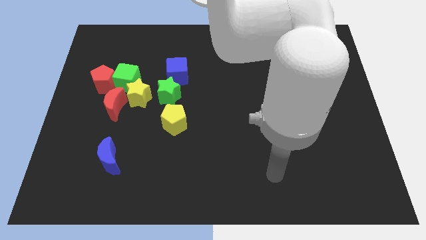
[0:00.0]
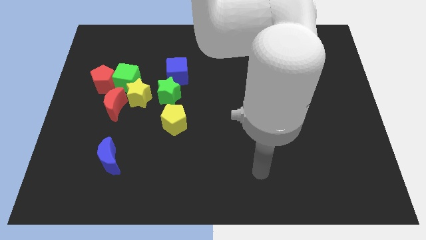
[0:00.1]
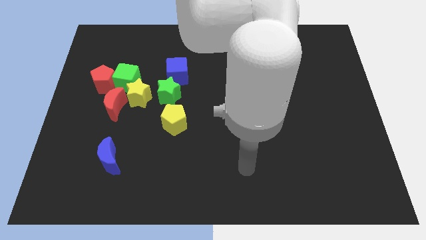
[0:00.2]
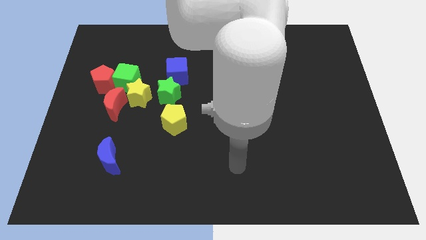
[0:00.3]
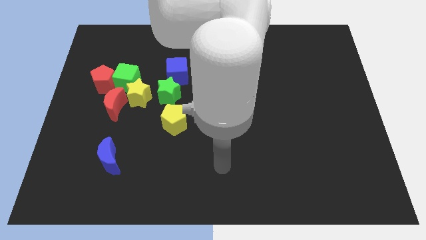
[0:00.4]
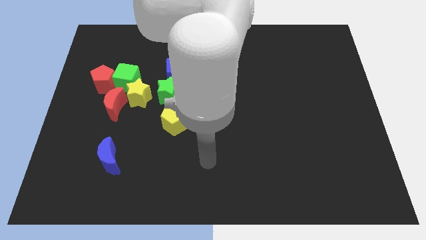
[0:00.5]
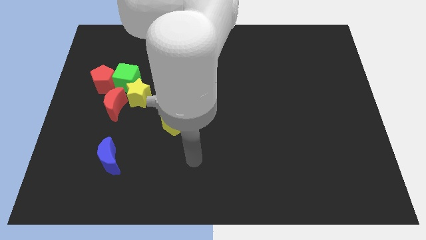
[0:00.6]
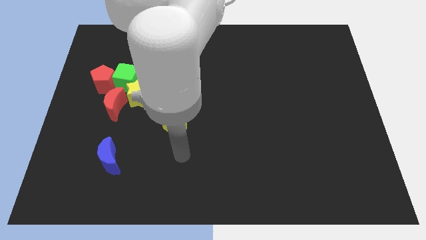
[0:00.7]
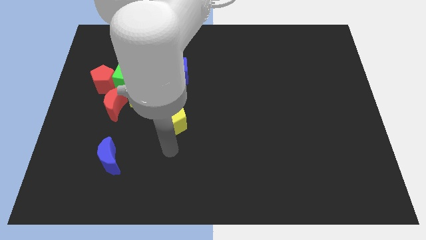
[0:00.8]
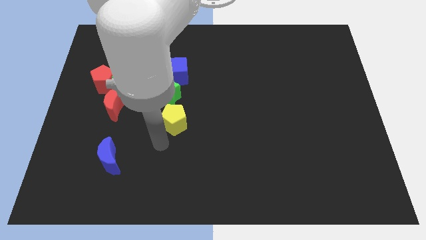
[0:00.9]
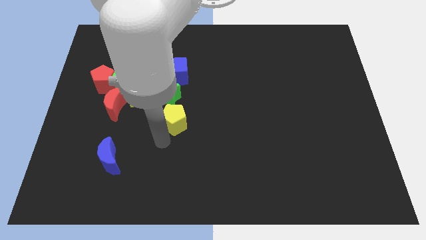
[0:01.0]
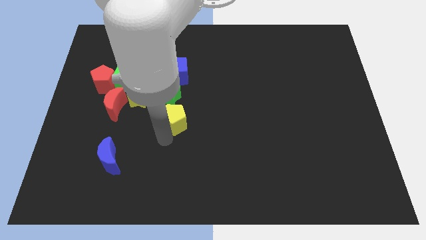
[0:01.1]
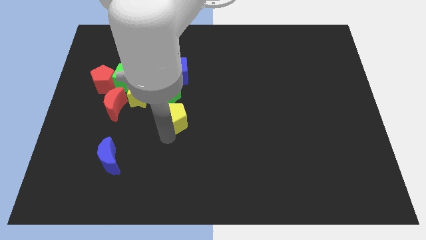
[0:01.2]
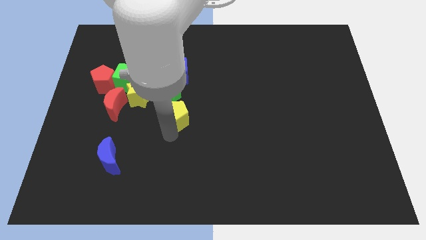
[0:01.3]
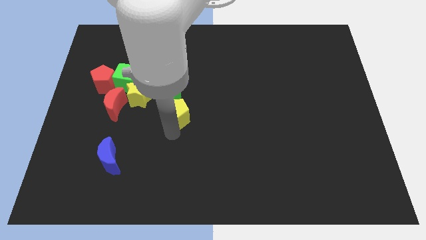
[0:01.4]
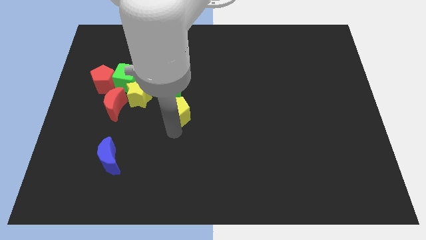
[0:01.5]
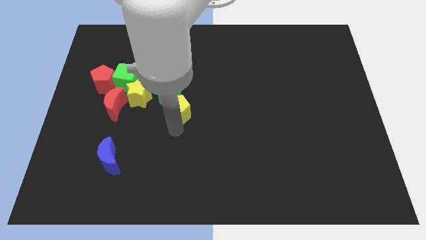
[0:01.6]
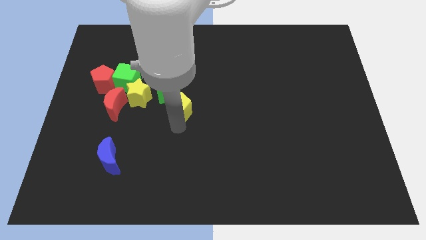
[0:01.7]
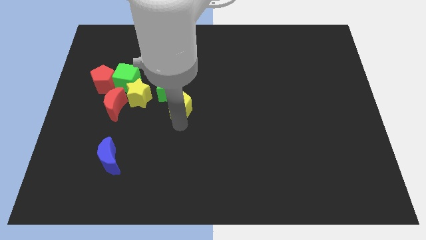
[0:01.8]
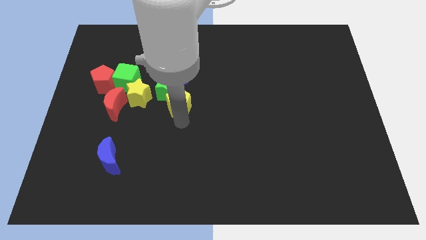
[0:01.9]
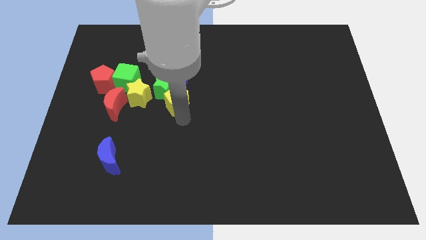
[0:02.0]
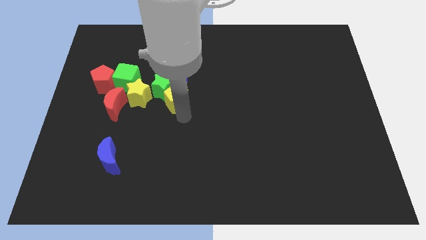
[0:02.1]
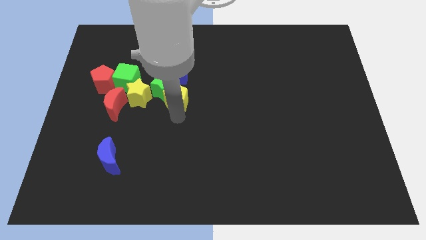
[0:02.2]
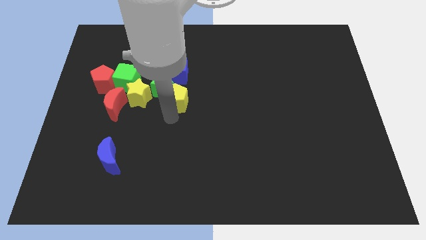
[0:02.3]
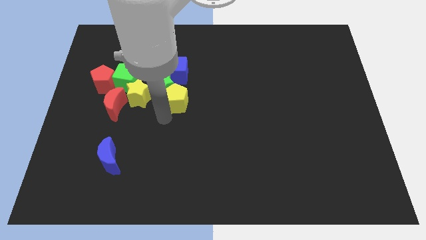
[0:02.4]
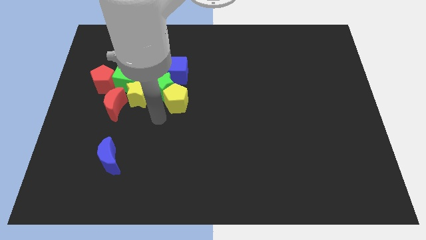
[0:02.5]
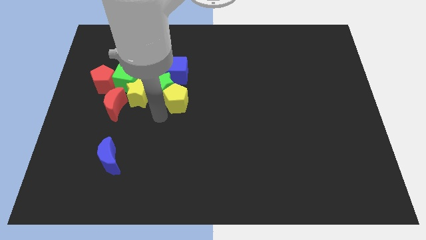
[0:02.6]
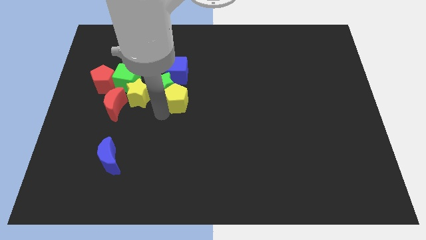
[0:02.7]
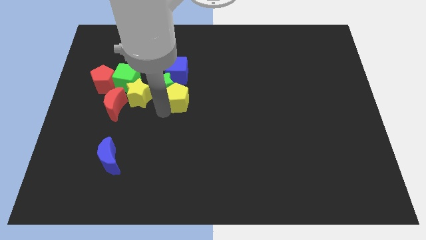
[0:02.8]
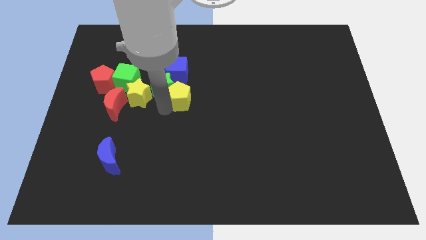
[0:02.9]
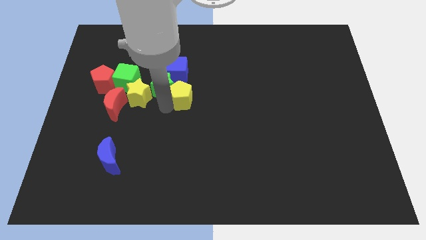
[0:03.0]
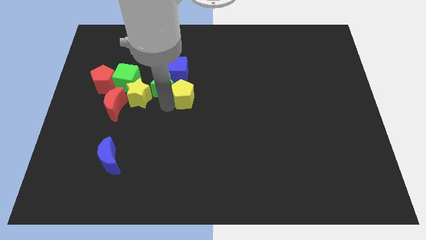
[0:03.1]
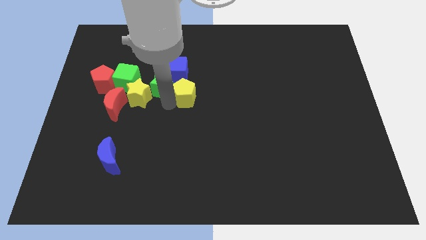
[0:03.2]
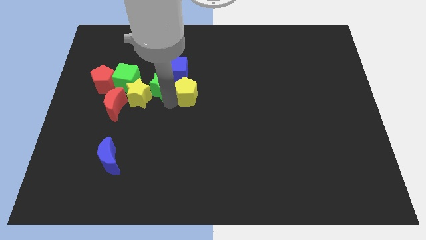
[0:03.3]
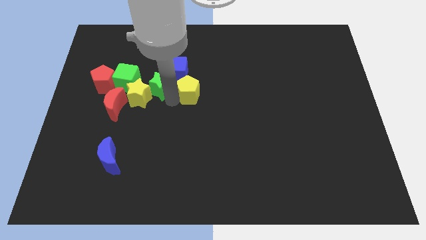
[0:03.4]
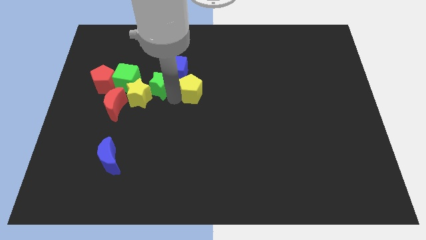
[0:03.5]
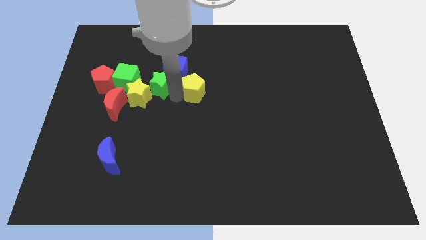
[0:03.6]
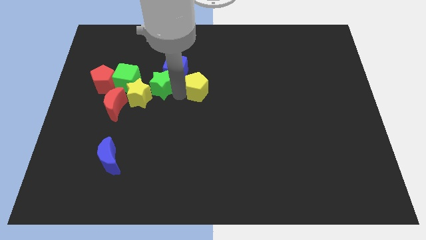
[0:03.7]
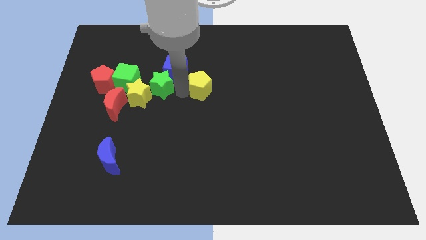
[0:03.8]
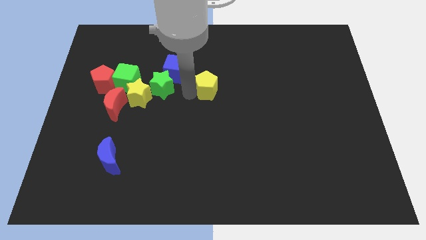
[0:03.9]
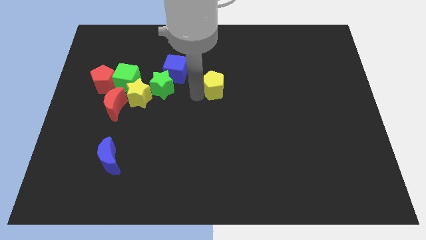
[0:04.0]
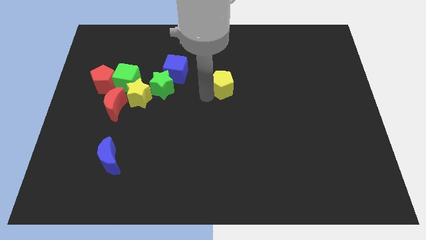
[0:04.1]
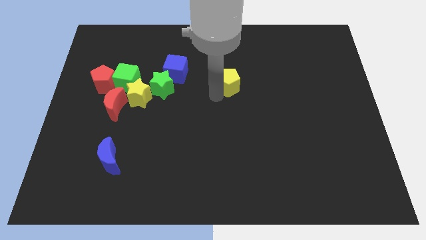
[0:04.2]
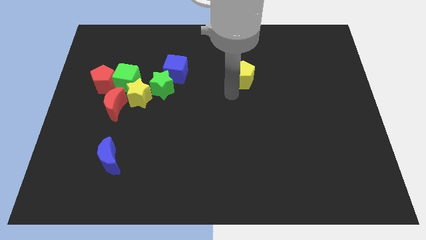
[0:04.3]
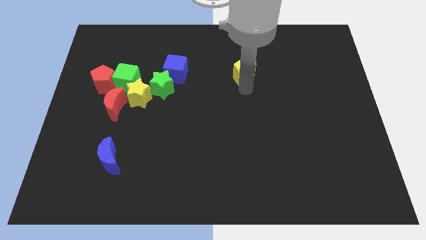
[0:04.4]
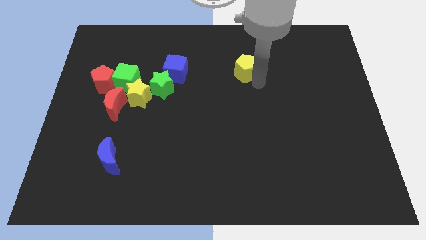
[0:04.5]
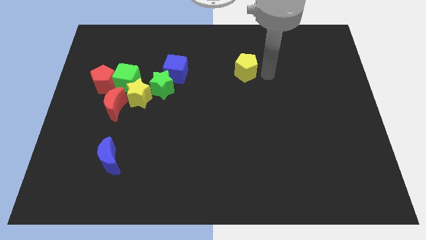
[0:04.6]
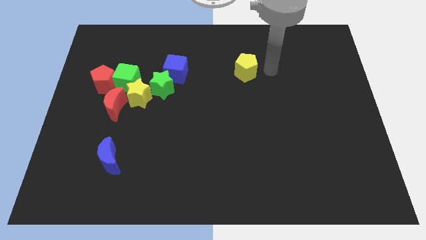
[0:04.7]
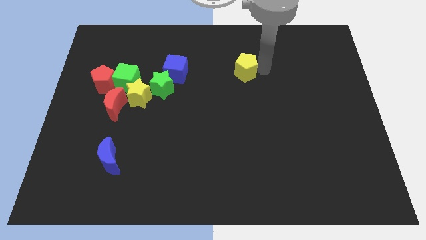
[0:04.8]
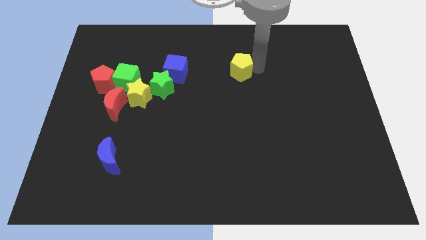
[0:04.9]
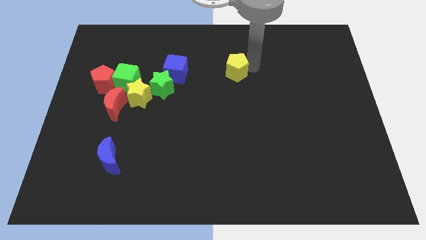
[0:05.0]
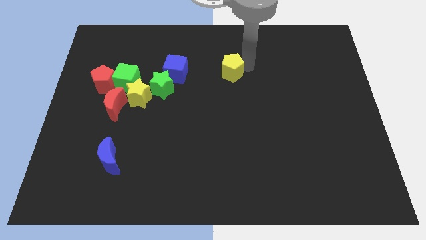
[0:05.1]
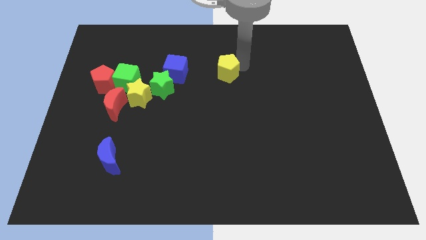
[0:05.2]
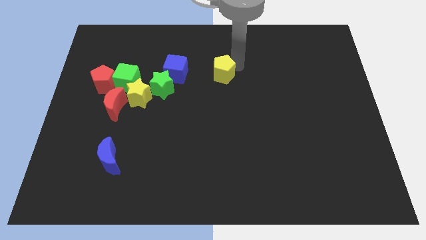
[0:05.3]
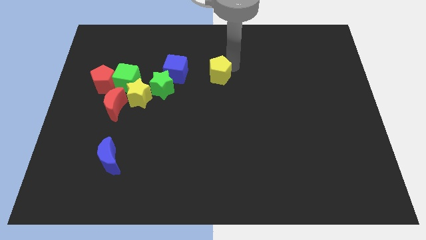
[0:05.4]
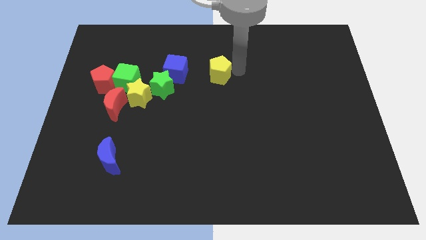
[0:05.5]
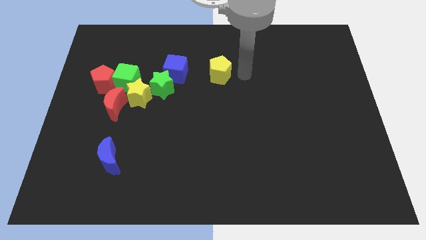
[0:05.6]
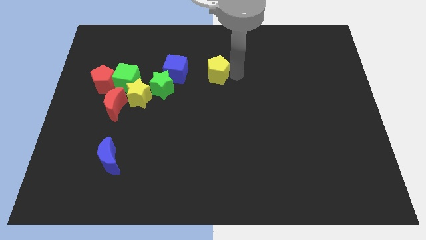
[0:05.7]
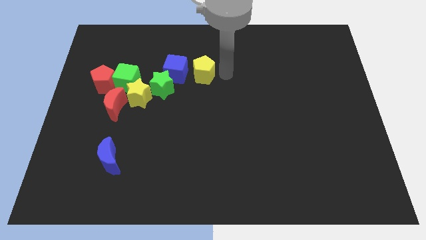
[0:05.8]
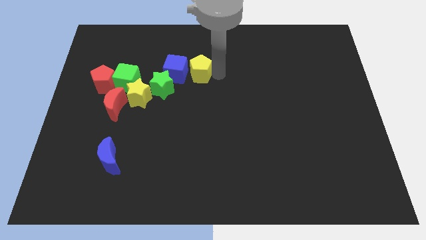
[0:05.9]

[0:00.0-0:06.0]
move the yellow pentagon close to the blue cube

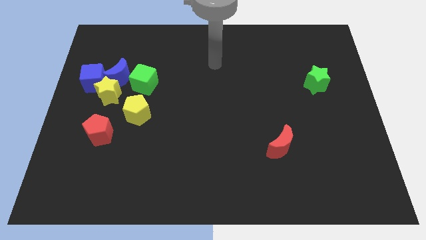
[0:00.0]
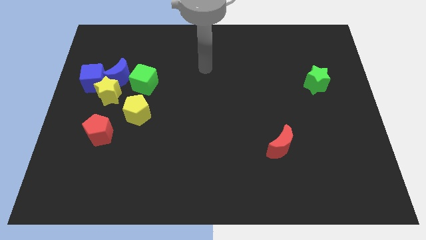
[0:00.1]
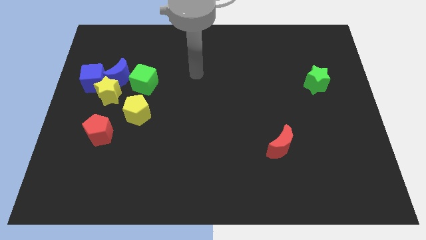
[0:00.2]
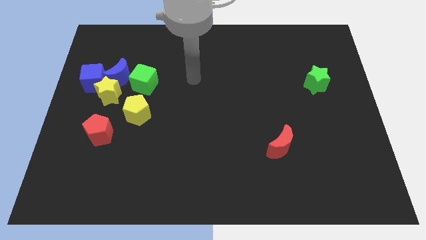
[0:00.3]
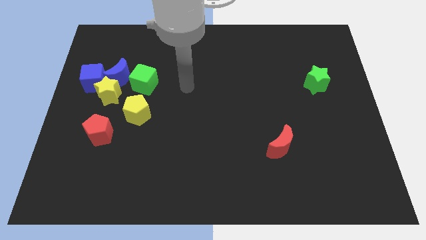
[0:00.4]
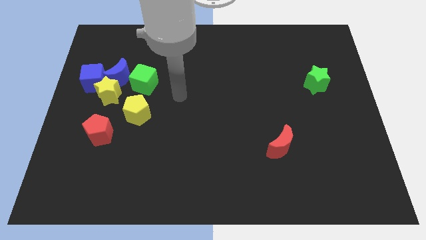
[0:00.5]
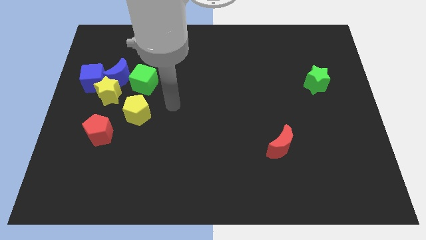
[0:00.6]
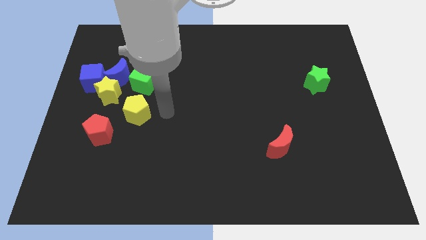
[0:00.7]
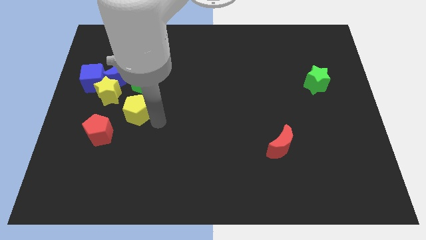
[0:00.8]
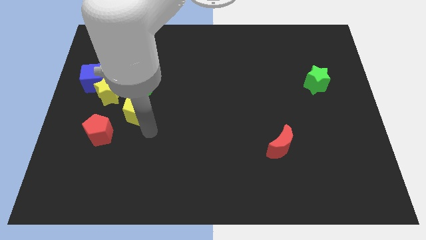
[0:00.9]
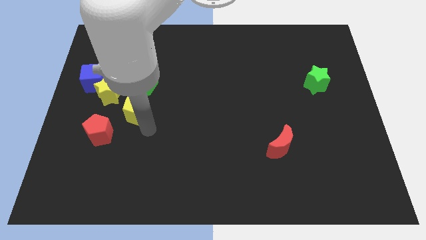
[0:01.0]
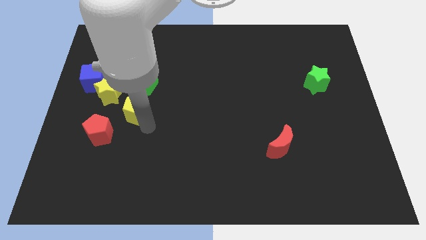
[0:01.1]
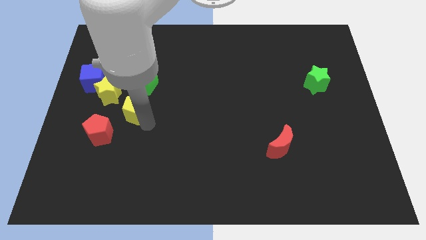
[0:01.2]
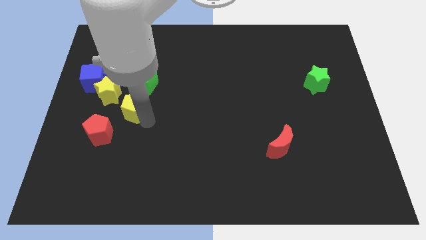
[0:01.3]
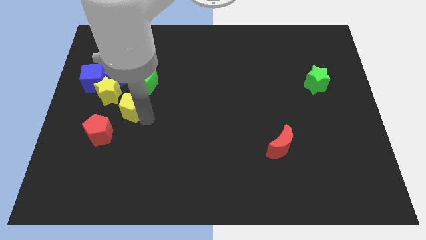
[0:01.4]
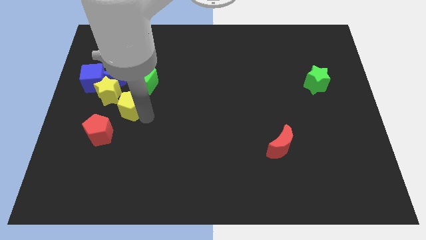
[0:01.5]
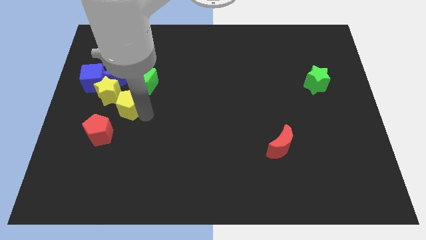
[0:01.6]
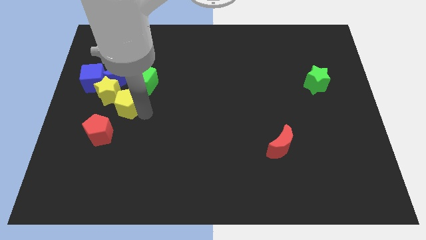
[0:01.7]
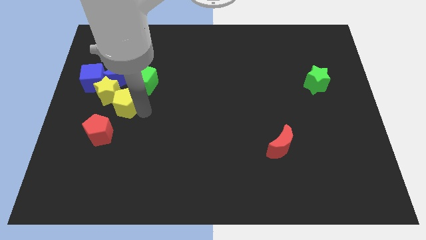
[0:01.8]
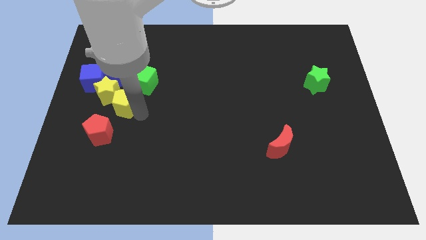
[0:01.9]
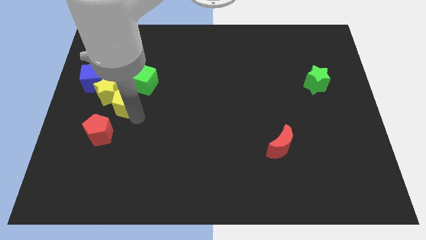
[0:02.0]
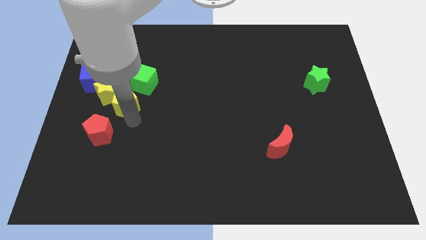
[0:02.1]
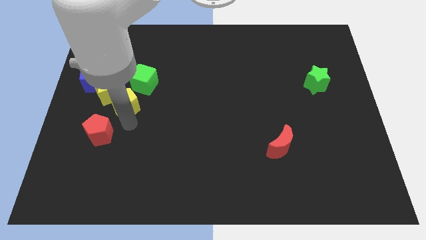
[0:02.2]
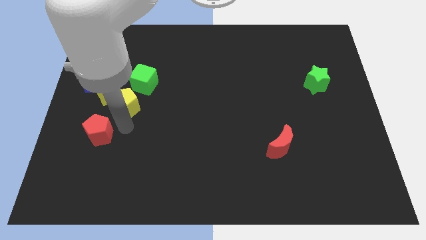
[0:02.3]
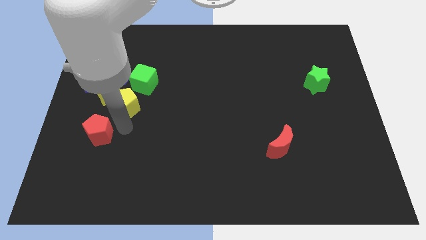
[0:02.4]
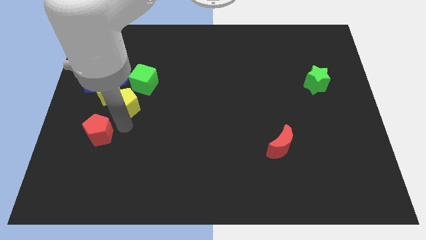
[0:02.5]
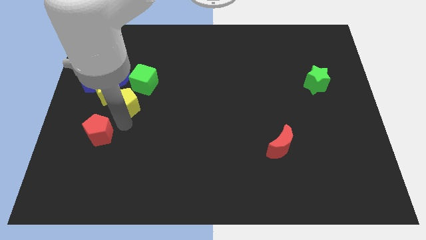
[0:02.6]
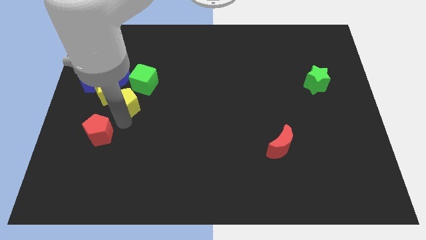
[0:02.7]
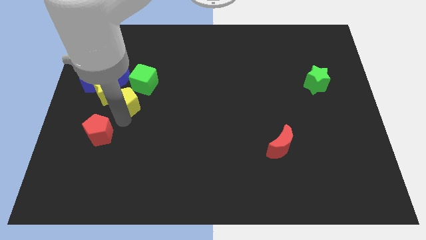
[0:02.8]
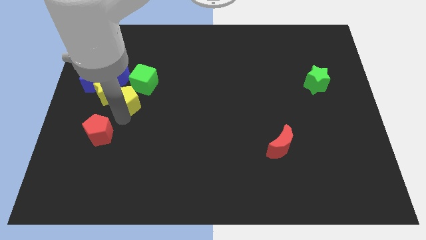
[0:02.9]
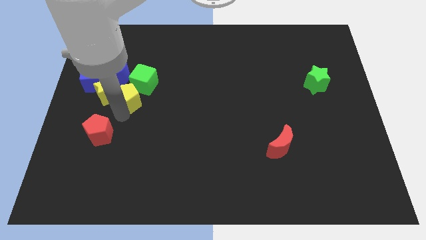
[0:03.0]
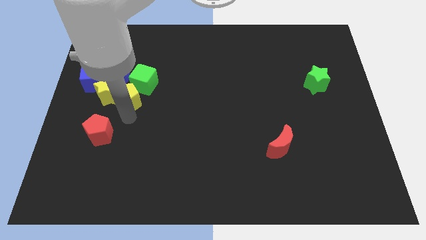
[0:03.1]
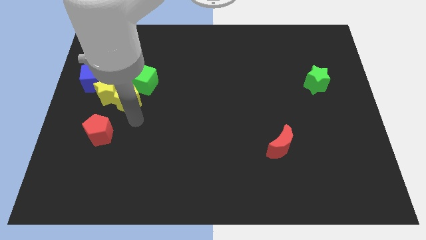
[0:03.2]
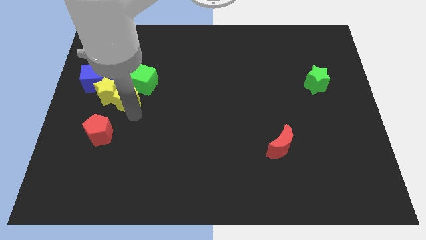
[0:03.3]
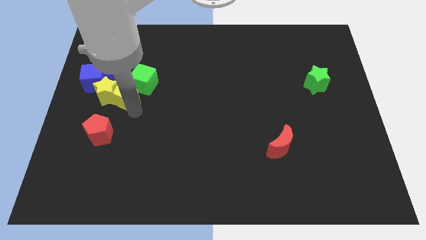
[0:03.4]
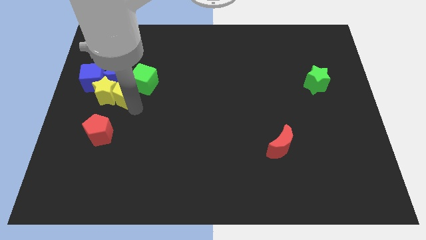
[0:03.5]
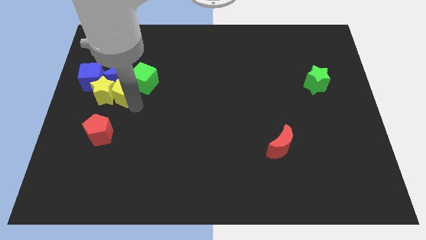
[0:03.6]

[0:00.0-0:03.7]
slide the yellow pentagon to the blue moon
